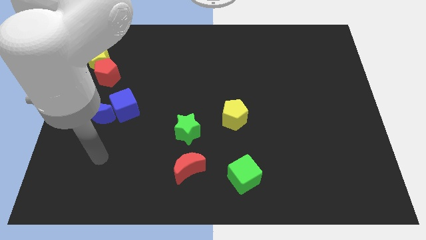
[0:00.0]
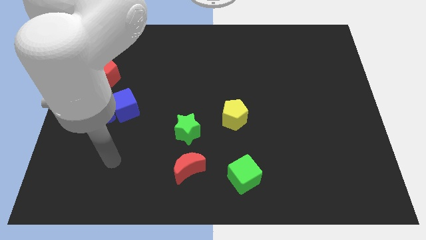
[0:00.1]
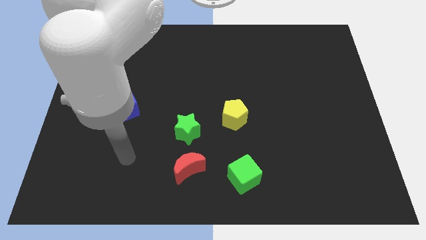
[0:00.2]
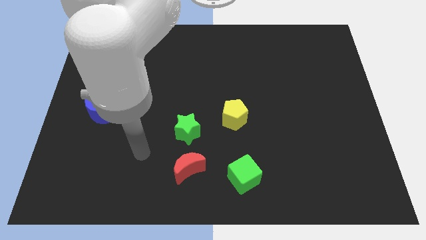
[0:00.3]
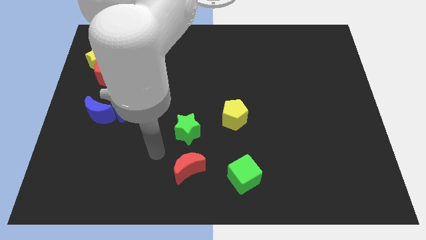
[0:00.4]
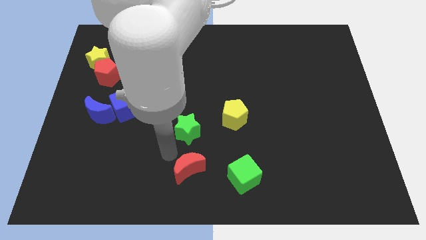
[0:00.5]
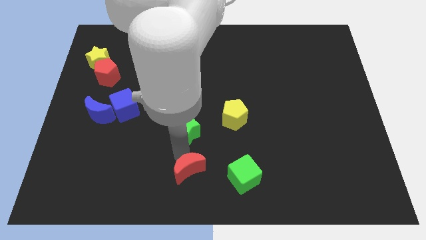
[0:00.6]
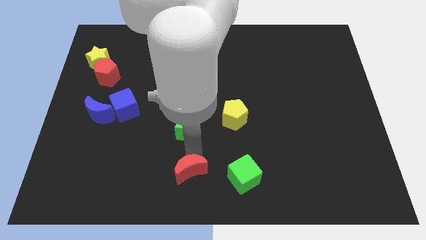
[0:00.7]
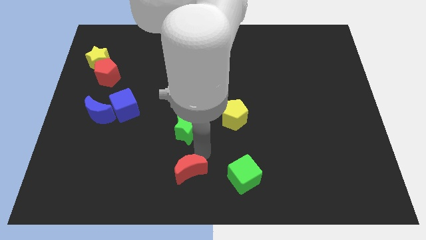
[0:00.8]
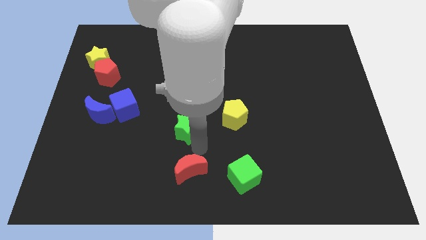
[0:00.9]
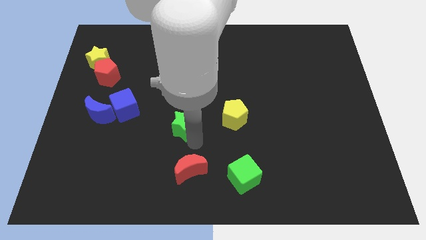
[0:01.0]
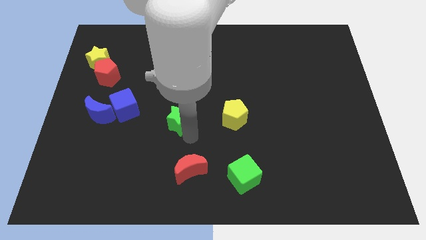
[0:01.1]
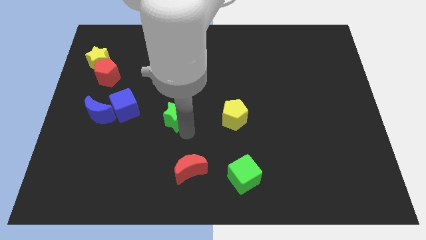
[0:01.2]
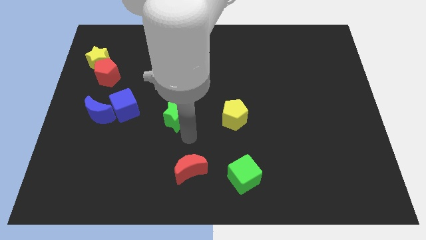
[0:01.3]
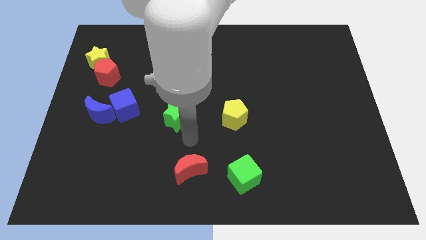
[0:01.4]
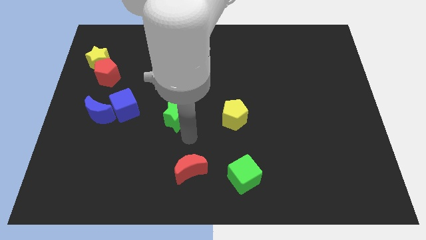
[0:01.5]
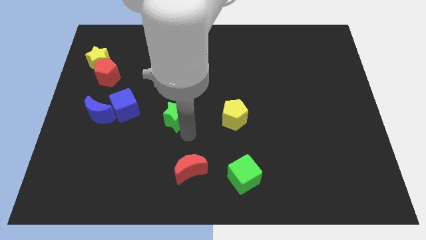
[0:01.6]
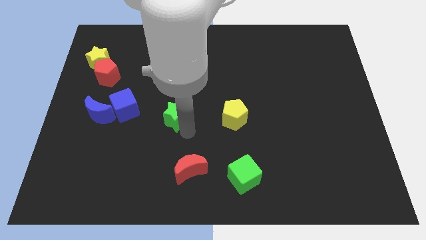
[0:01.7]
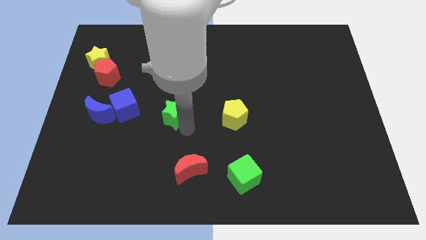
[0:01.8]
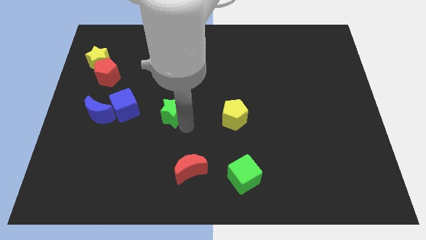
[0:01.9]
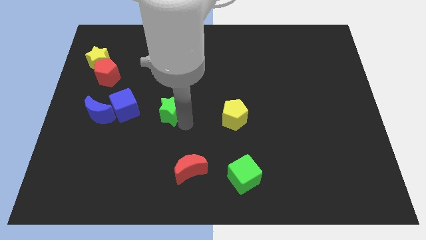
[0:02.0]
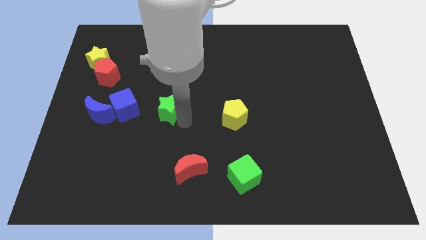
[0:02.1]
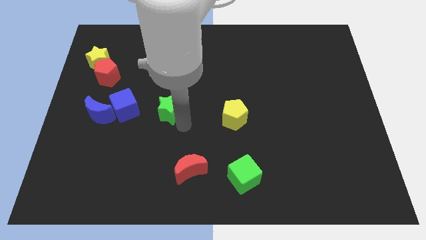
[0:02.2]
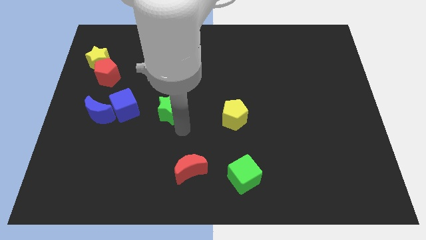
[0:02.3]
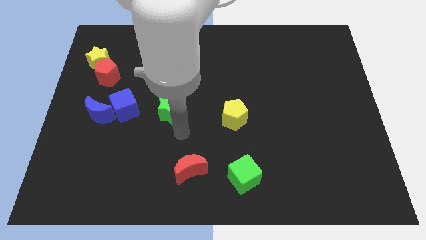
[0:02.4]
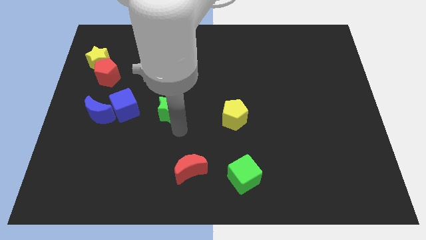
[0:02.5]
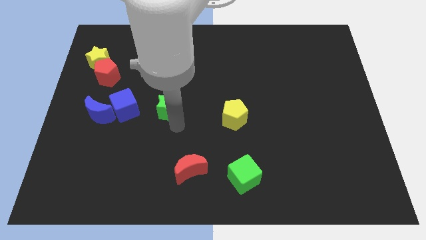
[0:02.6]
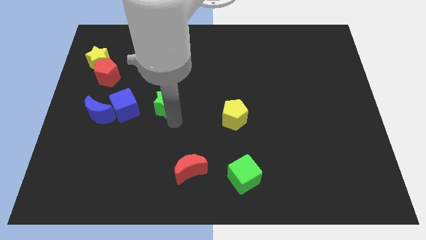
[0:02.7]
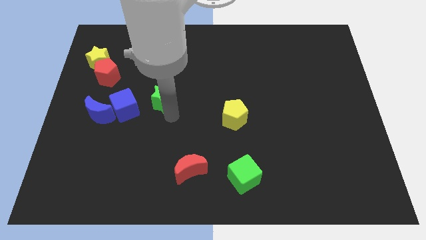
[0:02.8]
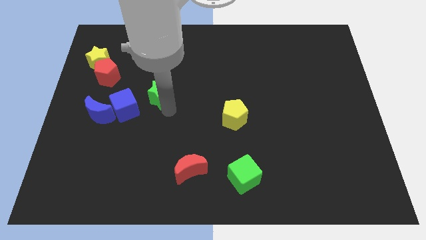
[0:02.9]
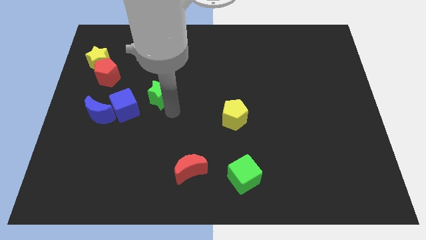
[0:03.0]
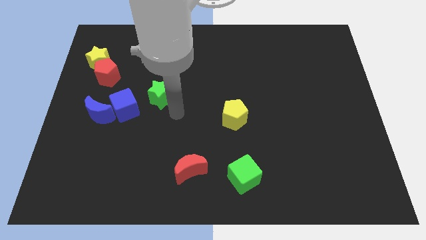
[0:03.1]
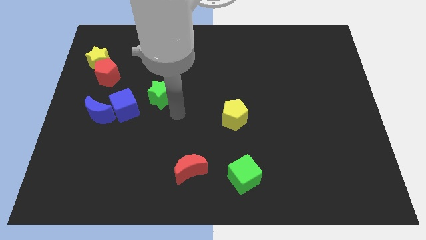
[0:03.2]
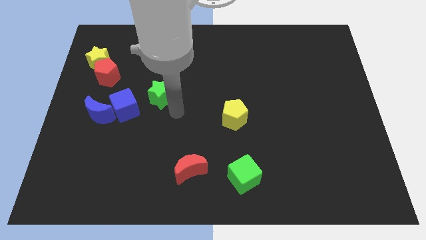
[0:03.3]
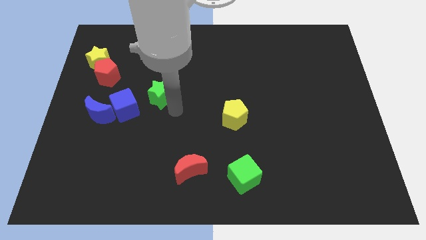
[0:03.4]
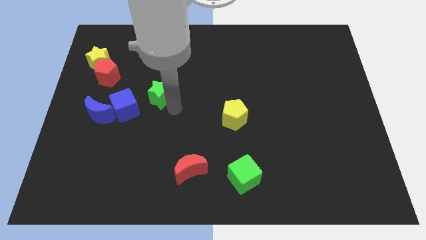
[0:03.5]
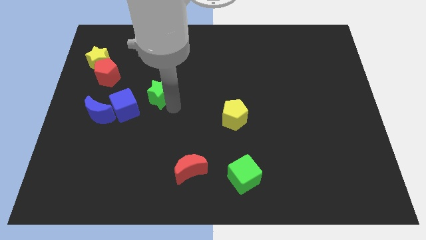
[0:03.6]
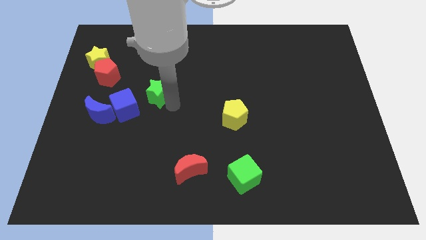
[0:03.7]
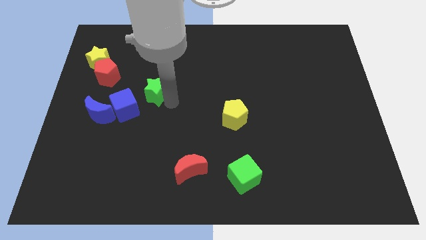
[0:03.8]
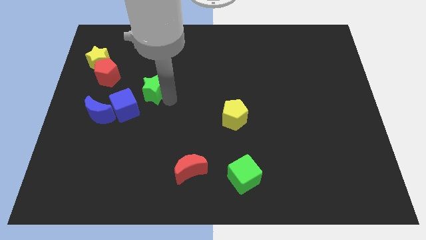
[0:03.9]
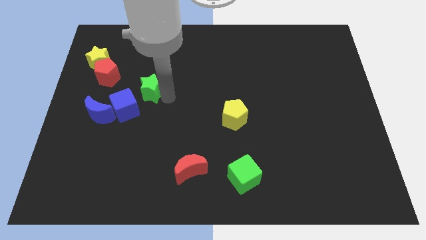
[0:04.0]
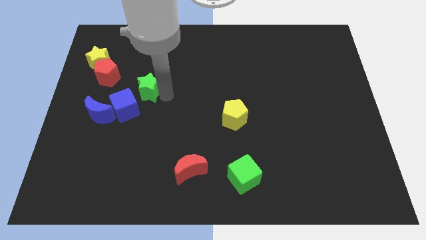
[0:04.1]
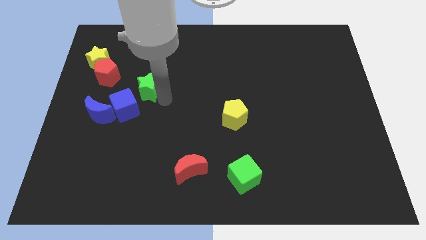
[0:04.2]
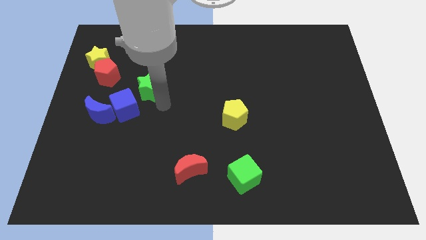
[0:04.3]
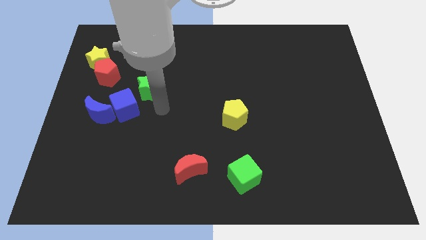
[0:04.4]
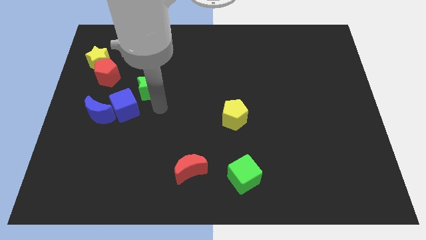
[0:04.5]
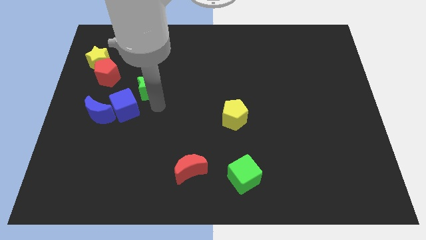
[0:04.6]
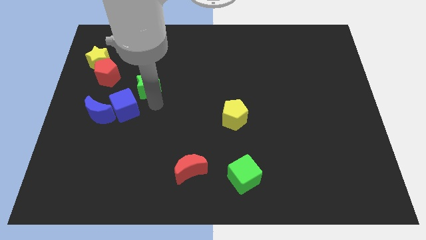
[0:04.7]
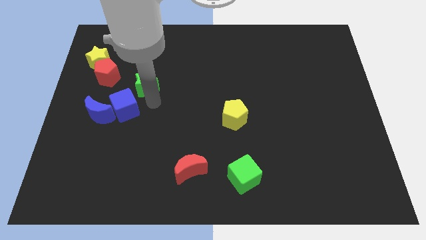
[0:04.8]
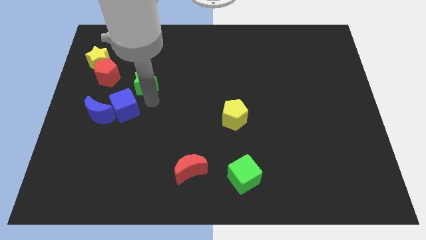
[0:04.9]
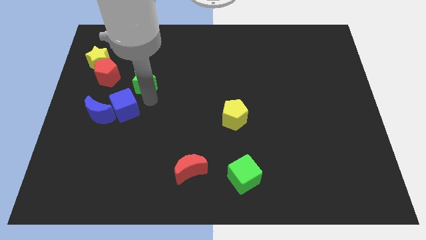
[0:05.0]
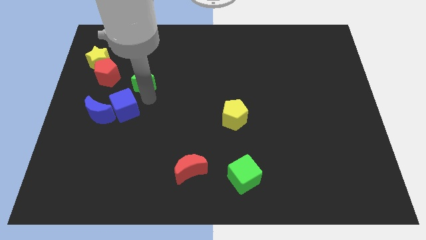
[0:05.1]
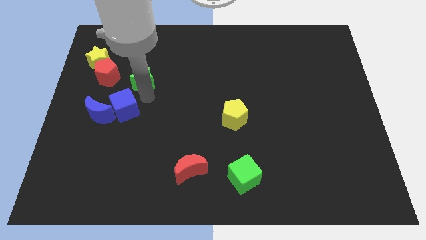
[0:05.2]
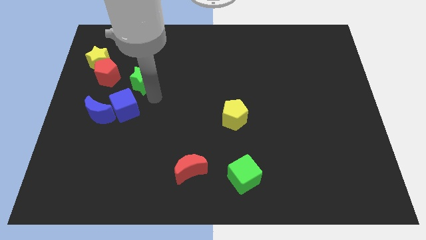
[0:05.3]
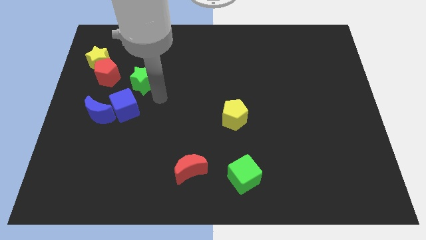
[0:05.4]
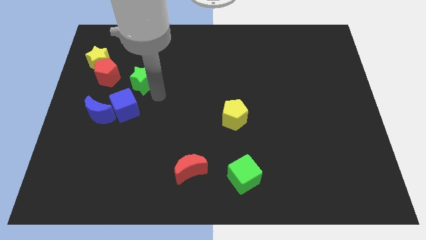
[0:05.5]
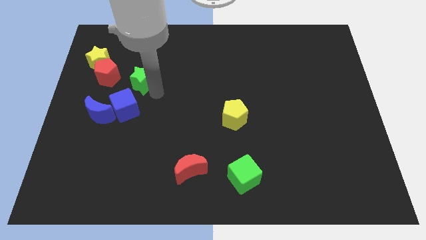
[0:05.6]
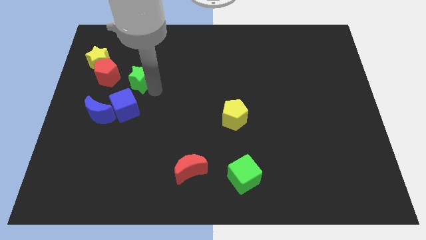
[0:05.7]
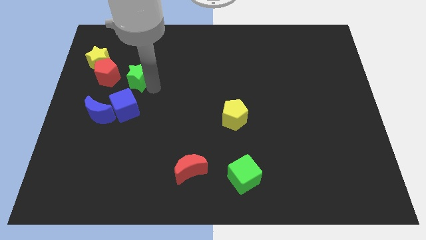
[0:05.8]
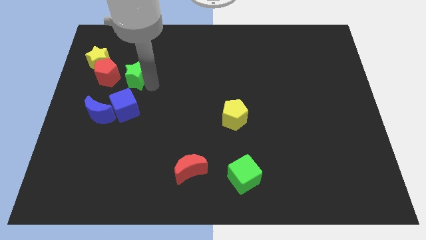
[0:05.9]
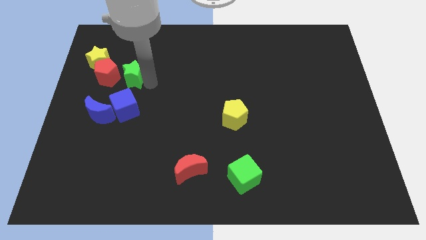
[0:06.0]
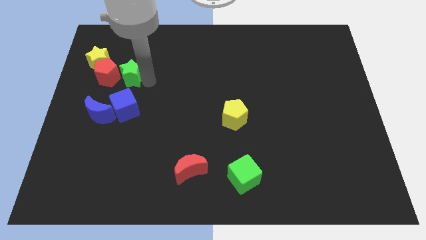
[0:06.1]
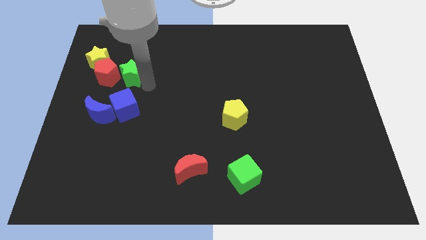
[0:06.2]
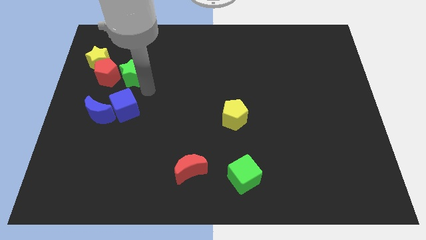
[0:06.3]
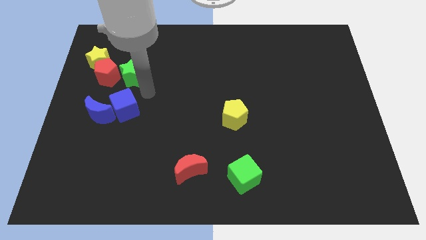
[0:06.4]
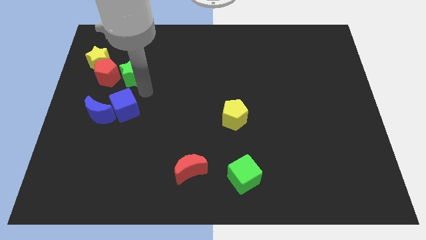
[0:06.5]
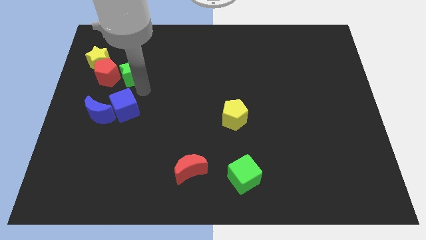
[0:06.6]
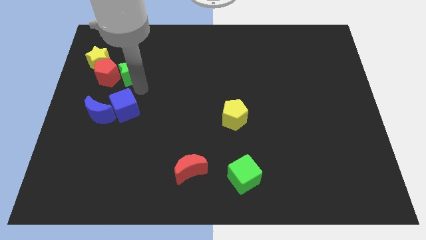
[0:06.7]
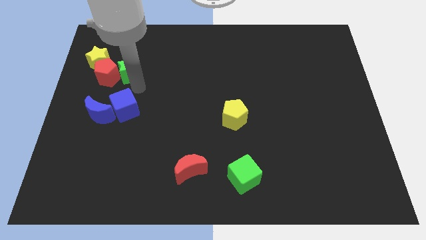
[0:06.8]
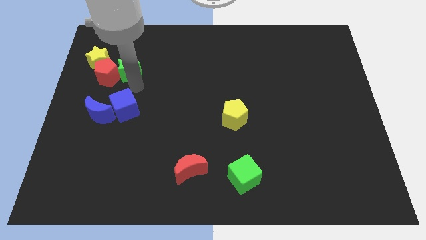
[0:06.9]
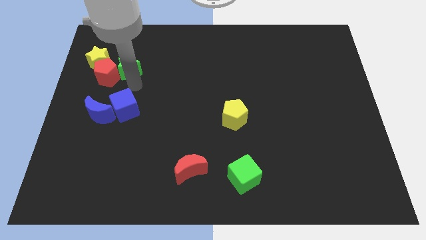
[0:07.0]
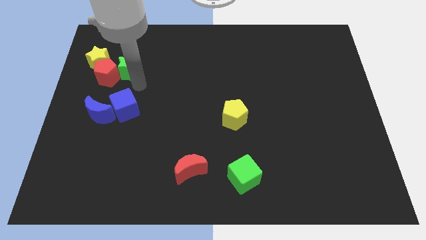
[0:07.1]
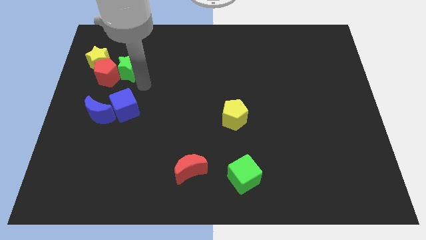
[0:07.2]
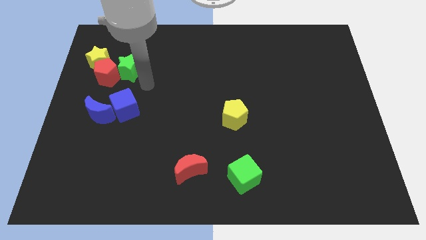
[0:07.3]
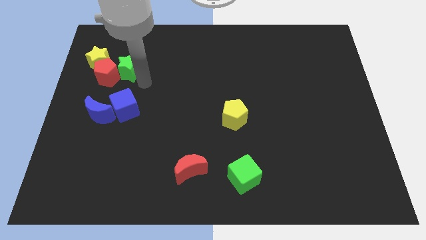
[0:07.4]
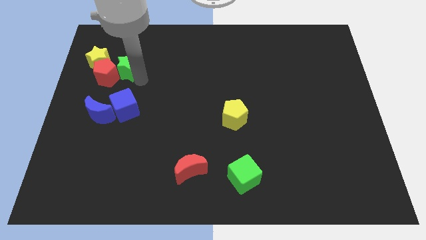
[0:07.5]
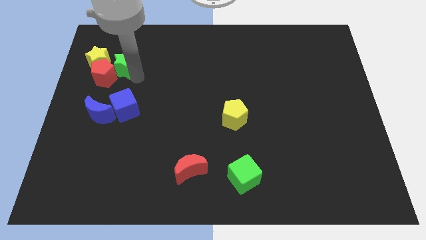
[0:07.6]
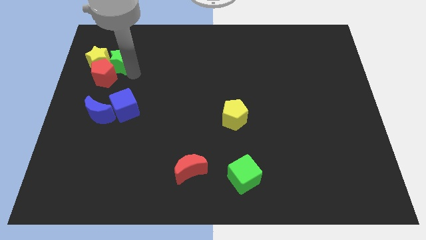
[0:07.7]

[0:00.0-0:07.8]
slide the green star close to the yellow star
